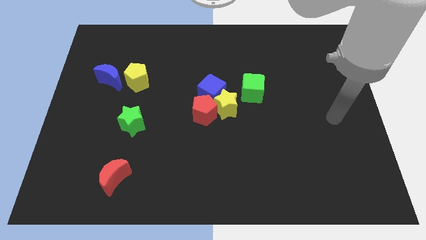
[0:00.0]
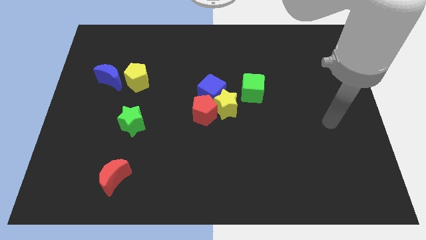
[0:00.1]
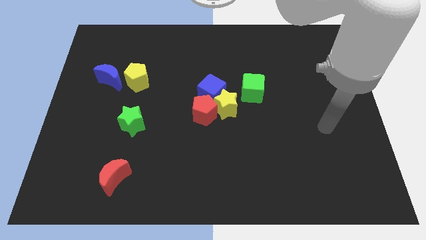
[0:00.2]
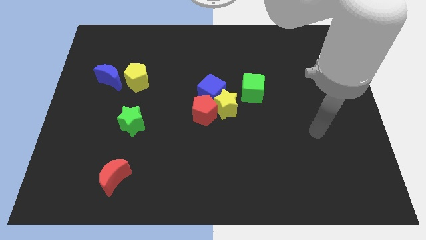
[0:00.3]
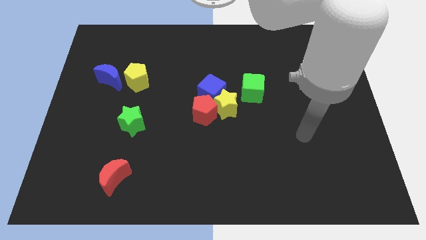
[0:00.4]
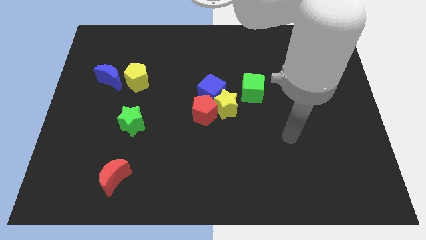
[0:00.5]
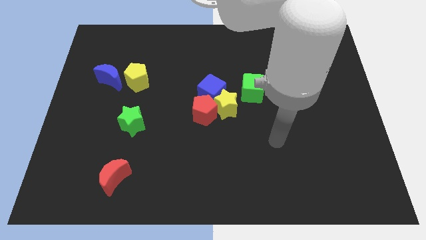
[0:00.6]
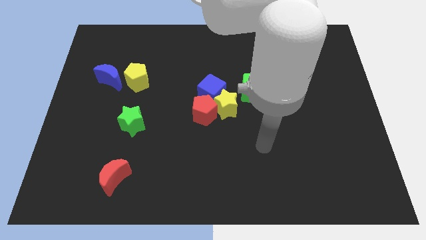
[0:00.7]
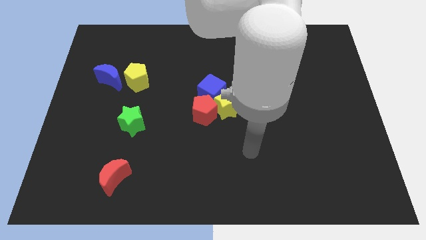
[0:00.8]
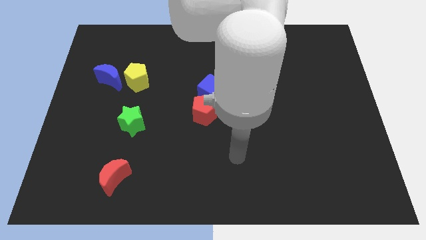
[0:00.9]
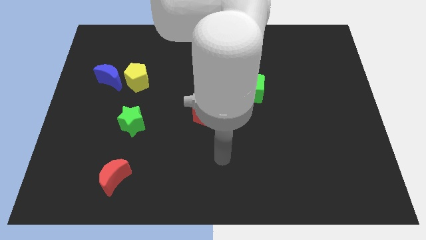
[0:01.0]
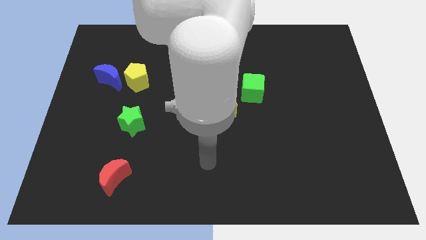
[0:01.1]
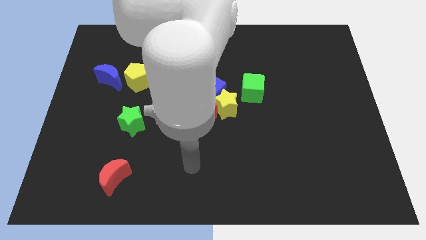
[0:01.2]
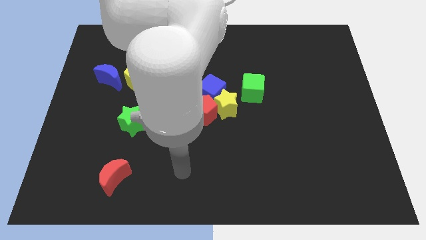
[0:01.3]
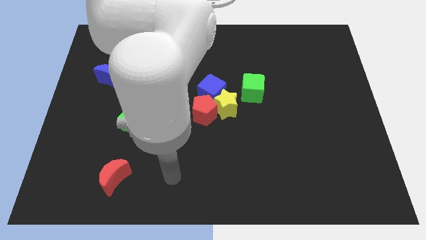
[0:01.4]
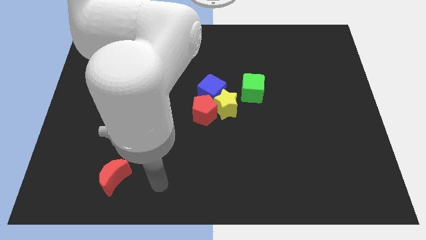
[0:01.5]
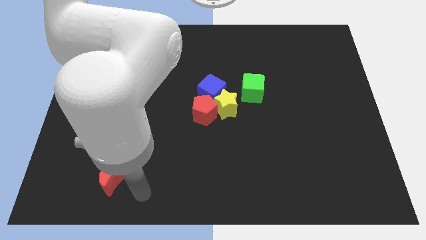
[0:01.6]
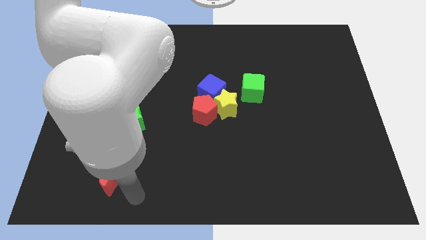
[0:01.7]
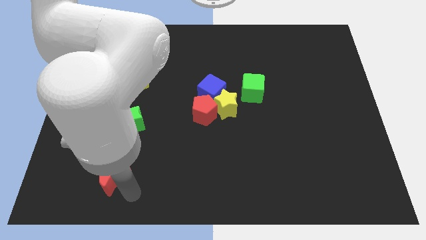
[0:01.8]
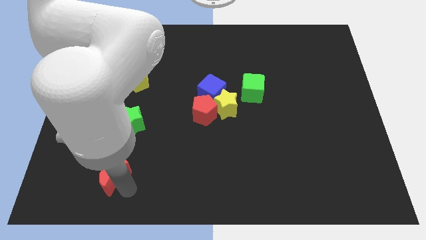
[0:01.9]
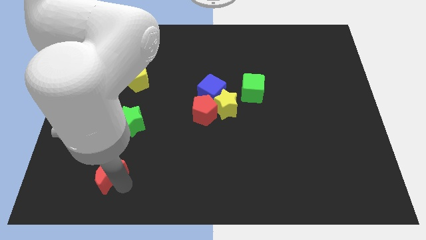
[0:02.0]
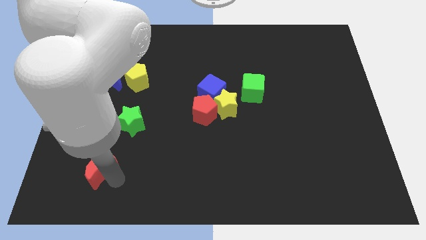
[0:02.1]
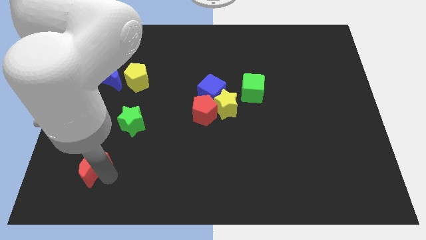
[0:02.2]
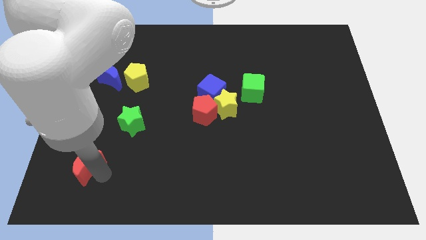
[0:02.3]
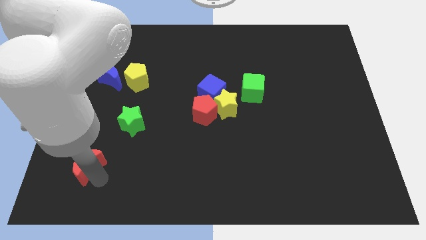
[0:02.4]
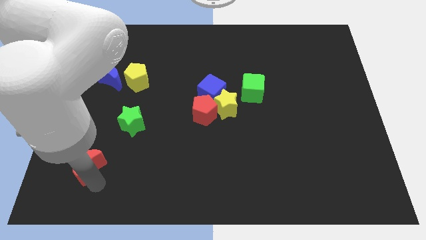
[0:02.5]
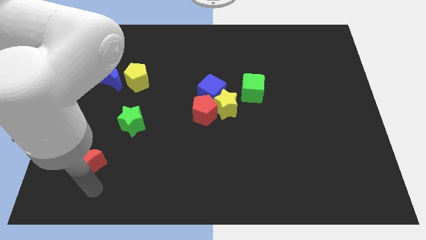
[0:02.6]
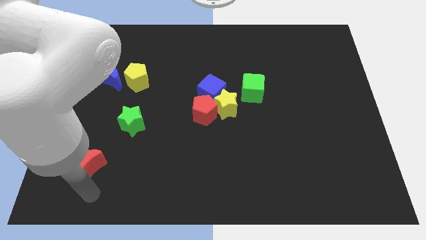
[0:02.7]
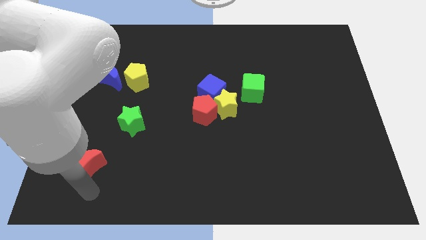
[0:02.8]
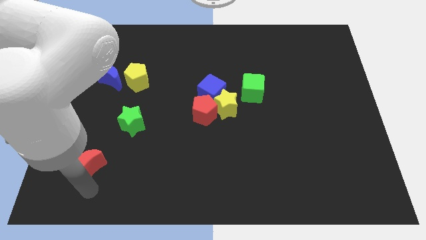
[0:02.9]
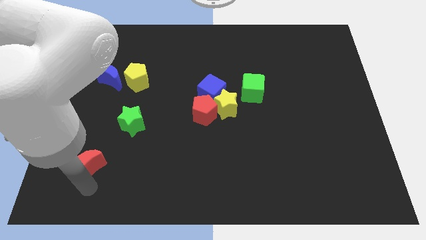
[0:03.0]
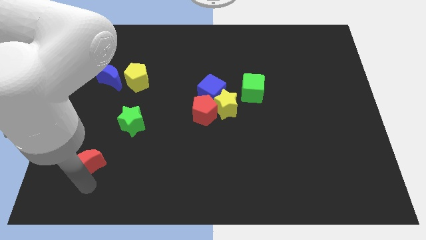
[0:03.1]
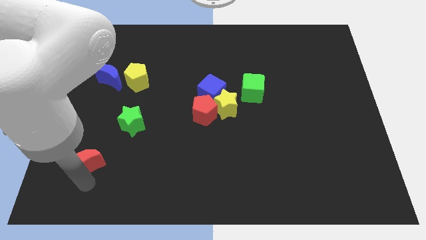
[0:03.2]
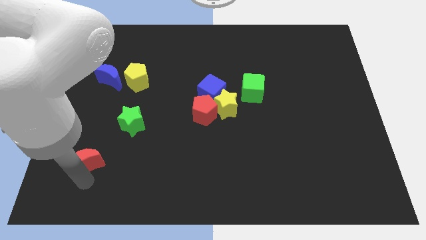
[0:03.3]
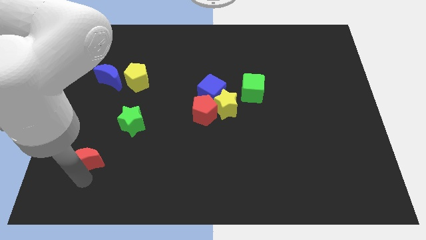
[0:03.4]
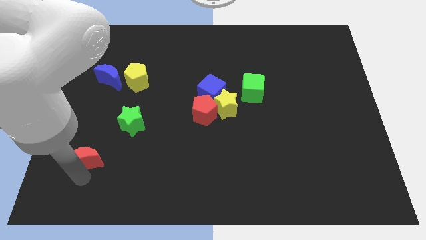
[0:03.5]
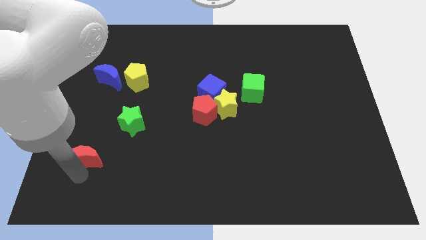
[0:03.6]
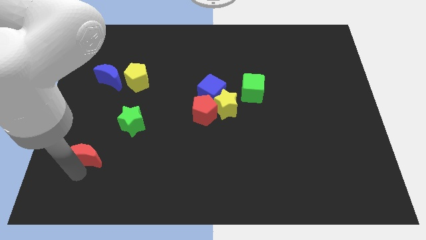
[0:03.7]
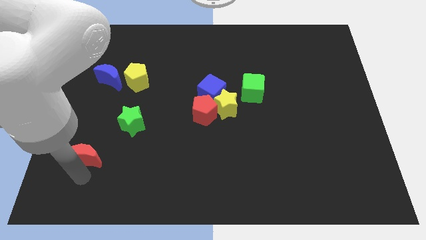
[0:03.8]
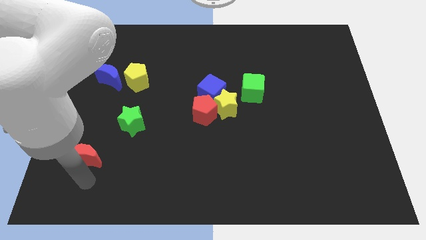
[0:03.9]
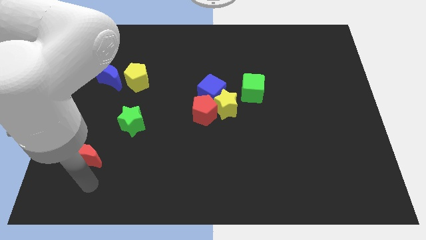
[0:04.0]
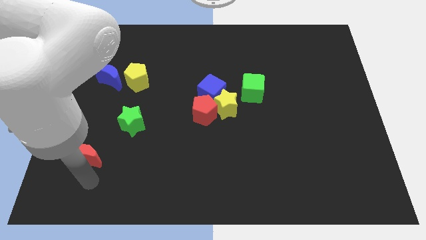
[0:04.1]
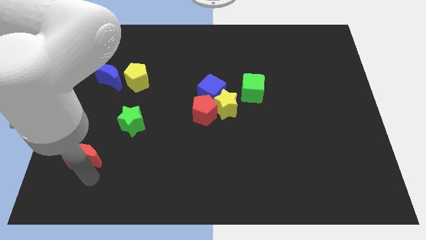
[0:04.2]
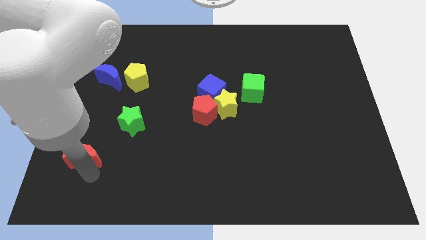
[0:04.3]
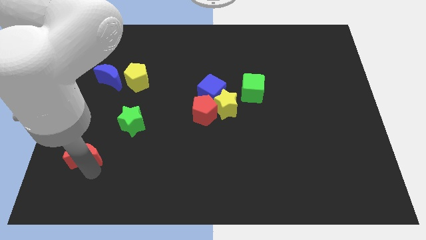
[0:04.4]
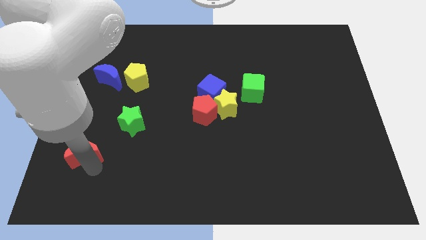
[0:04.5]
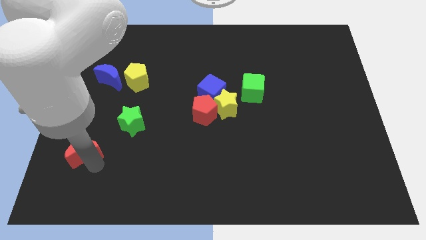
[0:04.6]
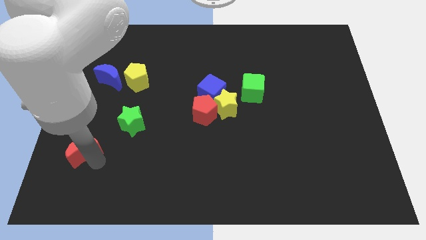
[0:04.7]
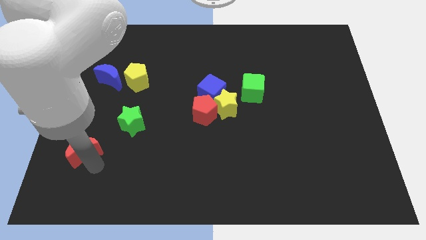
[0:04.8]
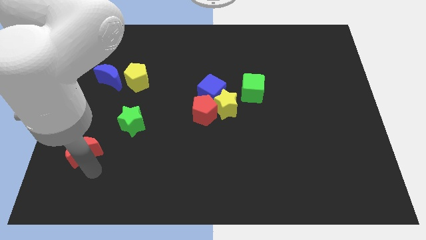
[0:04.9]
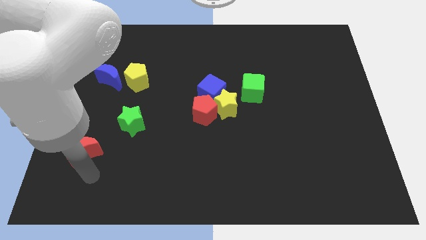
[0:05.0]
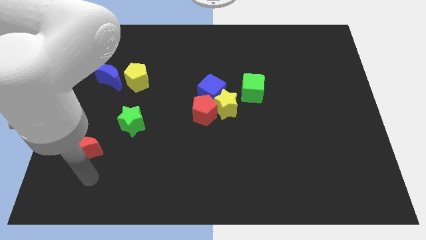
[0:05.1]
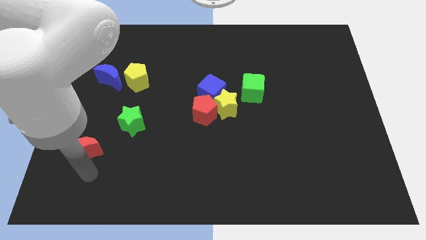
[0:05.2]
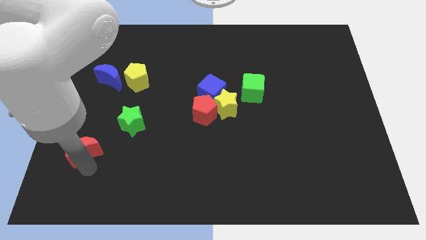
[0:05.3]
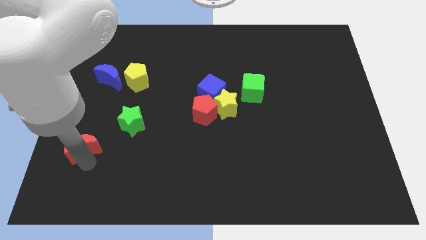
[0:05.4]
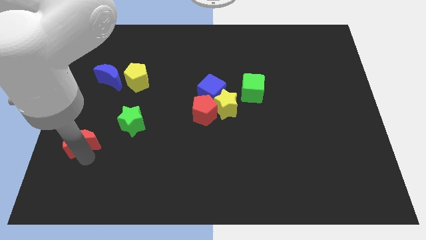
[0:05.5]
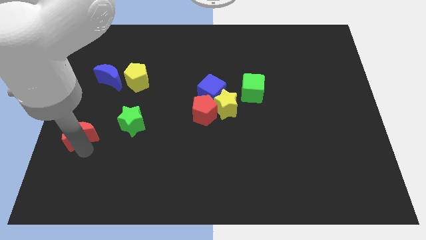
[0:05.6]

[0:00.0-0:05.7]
slide the red moon to the left side of the board
